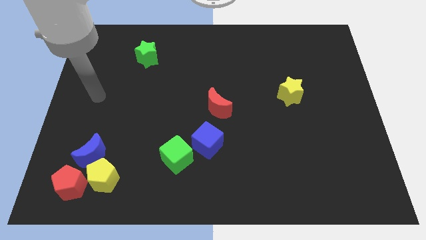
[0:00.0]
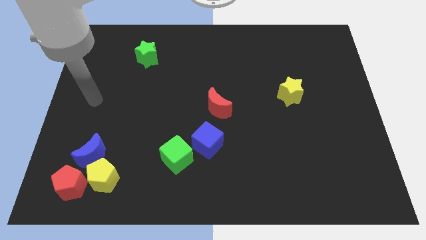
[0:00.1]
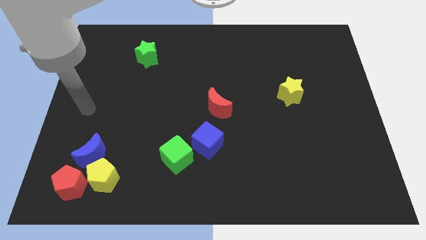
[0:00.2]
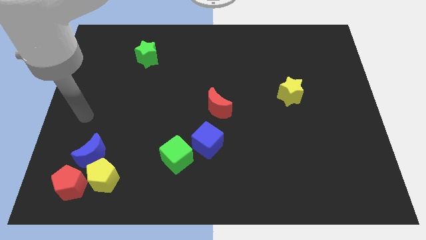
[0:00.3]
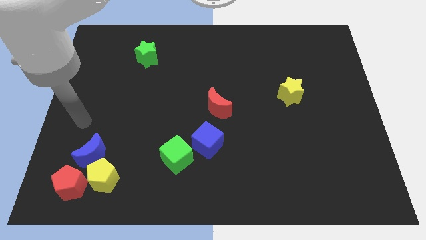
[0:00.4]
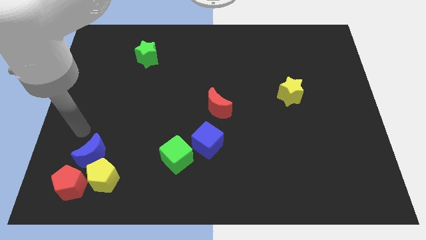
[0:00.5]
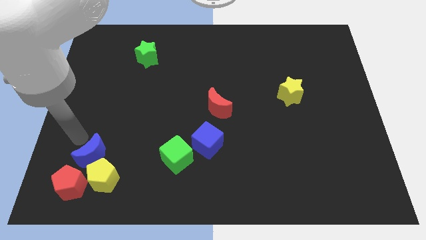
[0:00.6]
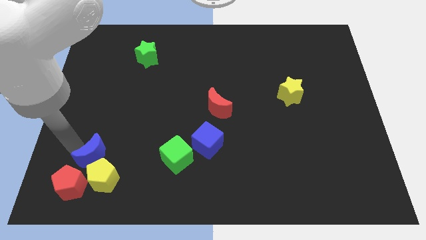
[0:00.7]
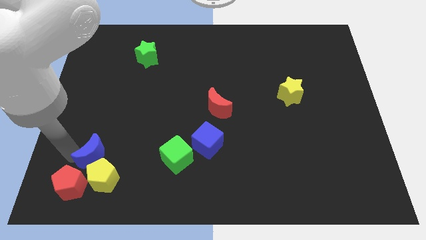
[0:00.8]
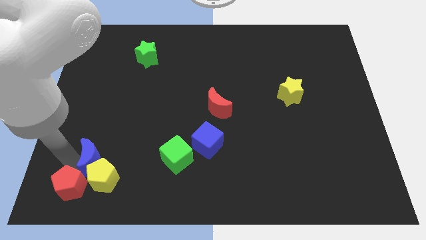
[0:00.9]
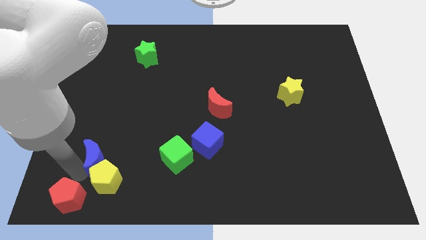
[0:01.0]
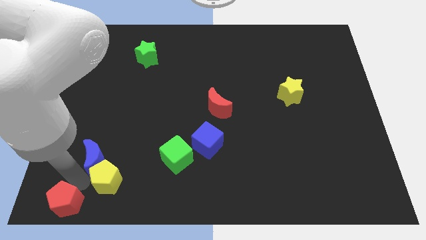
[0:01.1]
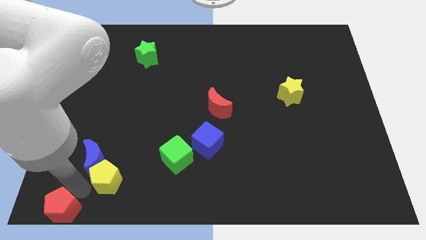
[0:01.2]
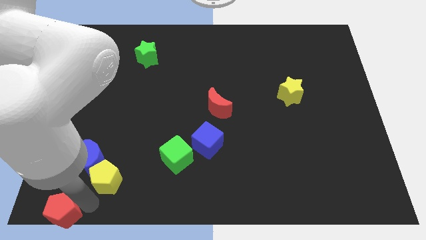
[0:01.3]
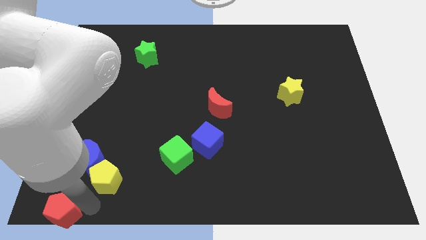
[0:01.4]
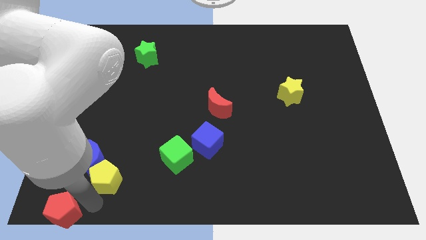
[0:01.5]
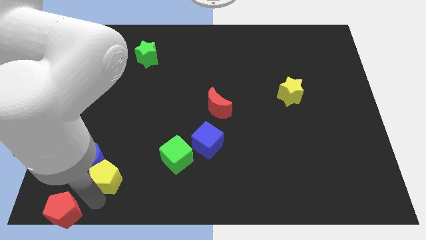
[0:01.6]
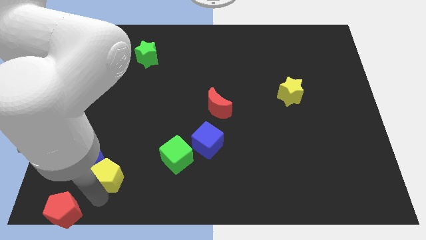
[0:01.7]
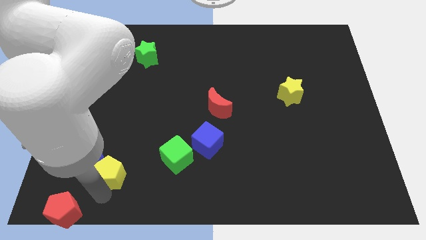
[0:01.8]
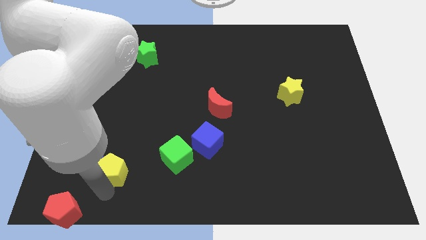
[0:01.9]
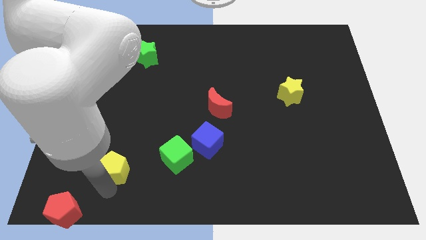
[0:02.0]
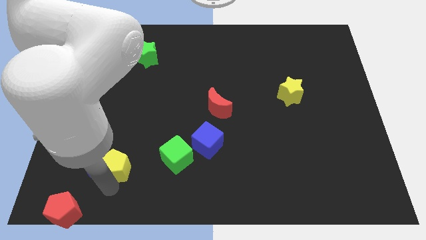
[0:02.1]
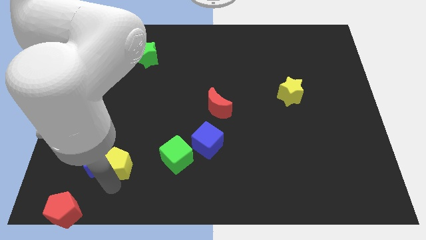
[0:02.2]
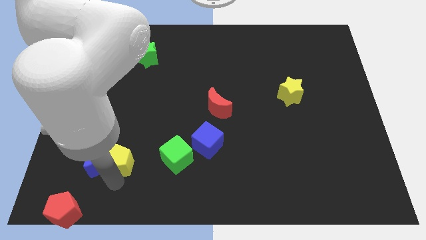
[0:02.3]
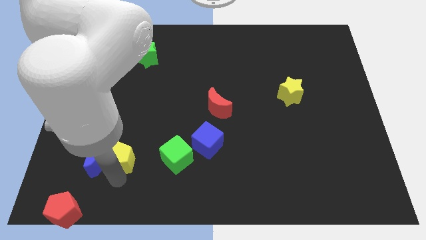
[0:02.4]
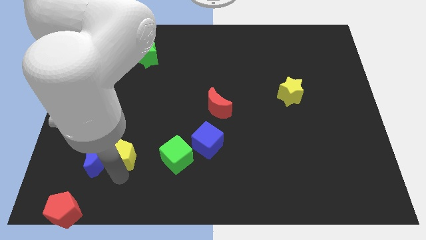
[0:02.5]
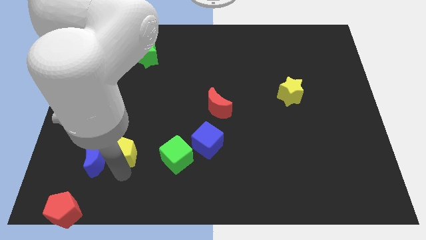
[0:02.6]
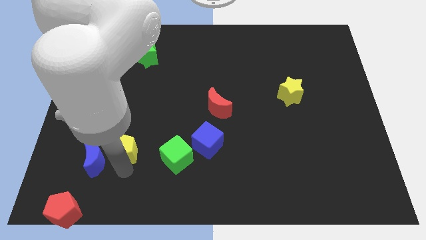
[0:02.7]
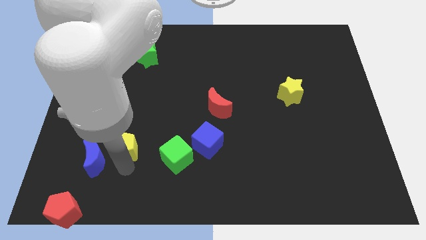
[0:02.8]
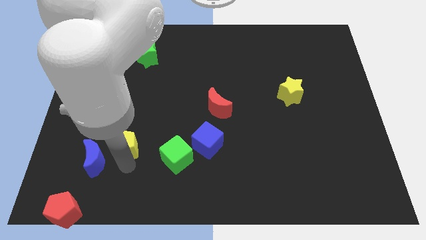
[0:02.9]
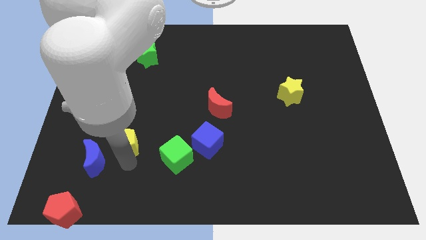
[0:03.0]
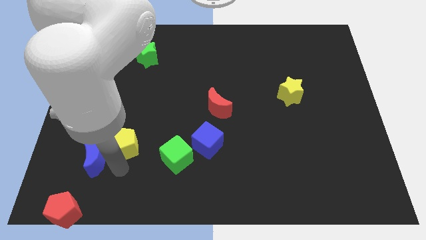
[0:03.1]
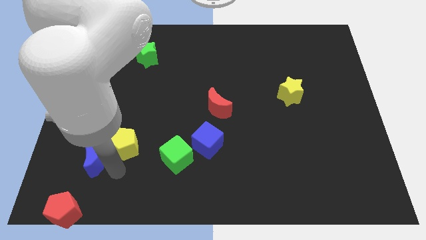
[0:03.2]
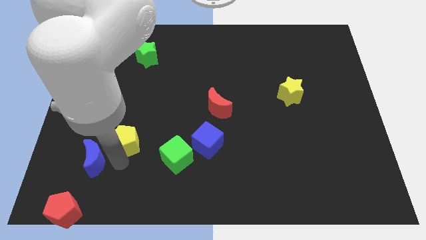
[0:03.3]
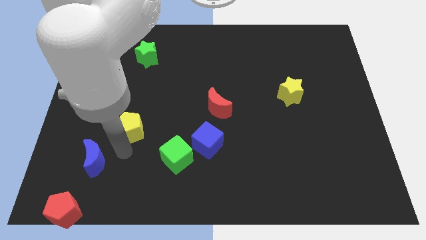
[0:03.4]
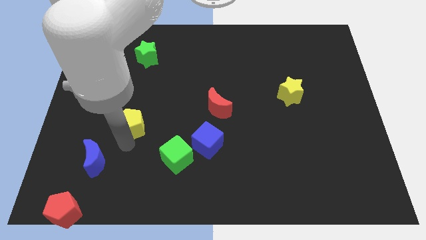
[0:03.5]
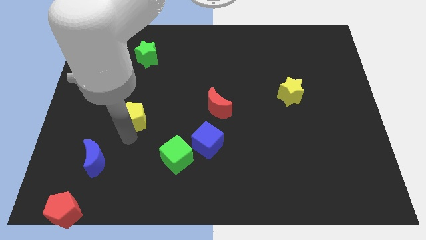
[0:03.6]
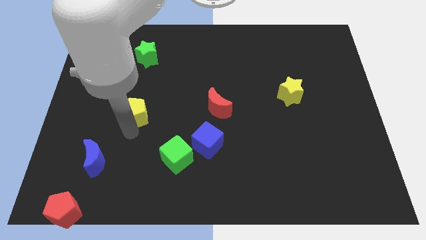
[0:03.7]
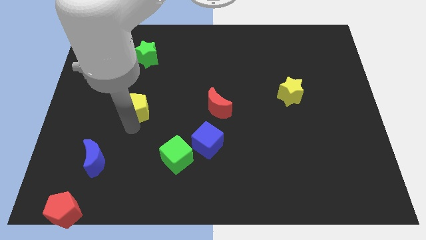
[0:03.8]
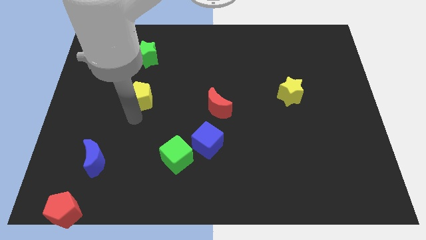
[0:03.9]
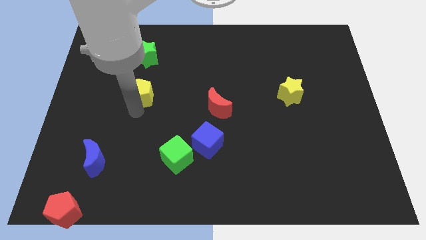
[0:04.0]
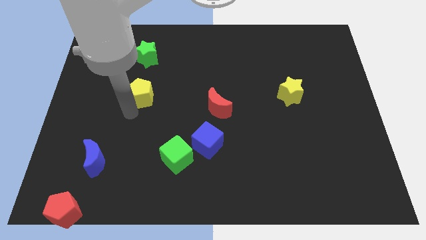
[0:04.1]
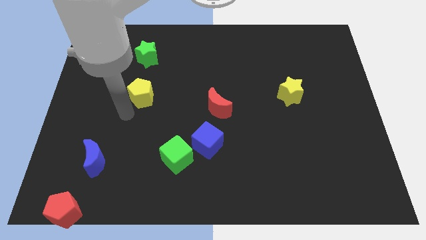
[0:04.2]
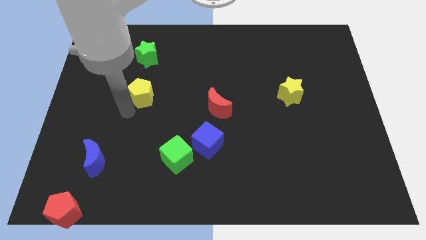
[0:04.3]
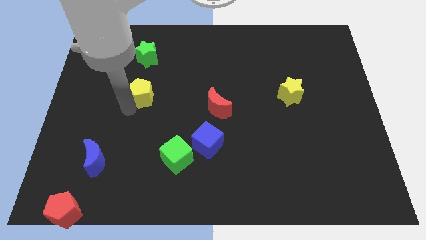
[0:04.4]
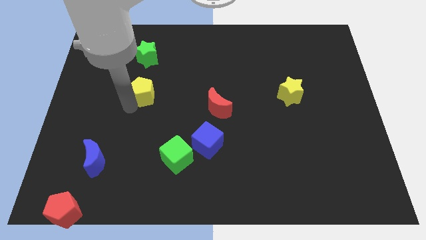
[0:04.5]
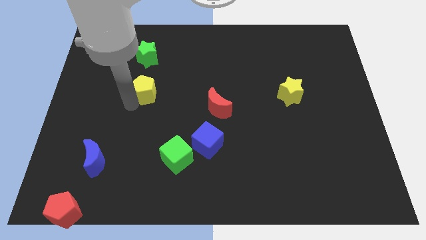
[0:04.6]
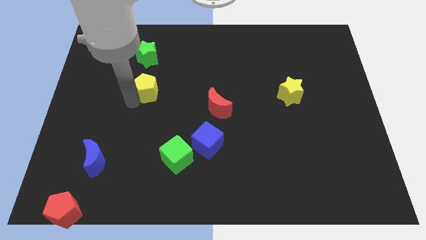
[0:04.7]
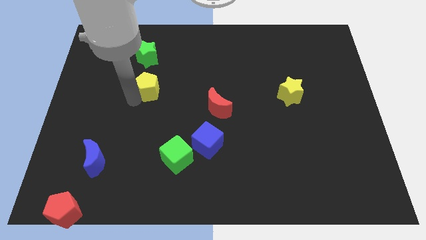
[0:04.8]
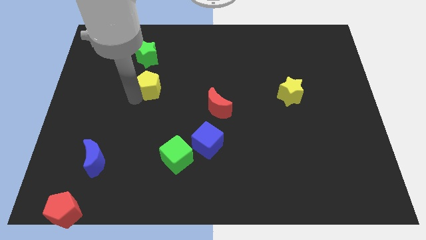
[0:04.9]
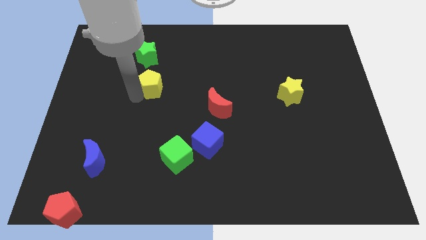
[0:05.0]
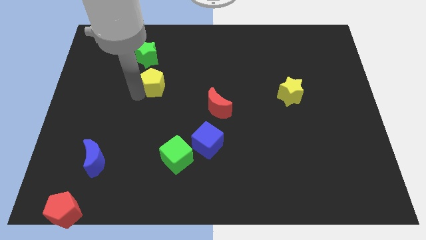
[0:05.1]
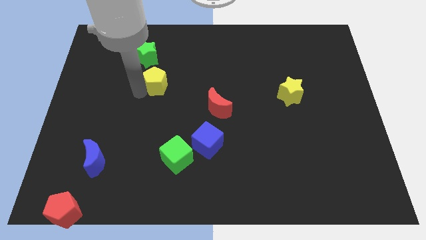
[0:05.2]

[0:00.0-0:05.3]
slide the yellow pentagon to the bottom right side of the green star

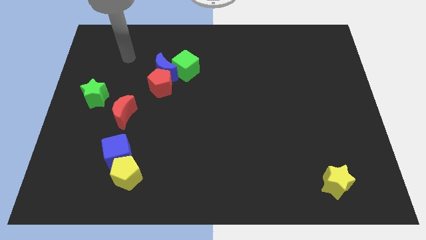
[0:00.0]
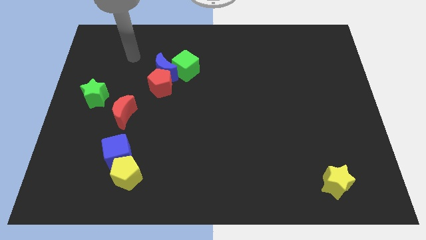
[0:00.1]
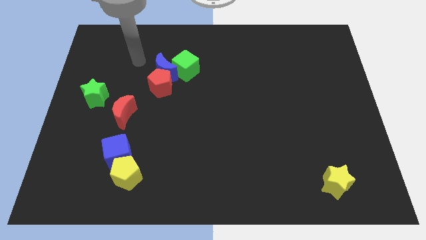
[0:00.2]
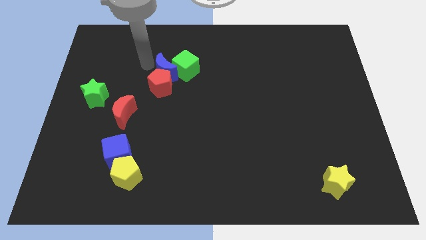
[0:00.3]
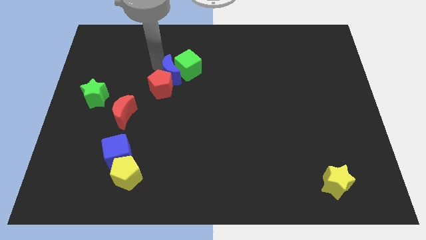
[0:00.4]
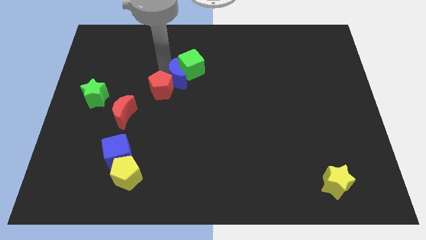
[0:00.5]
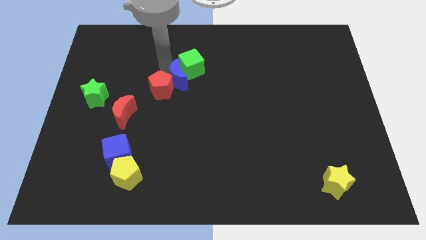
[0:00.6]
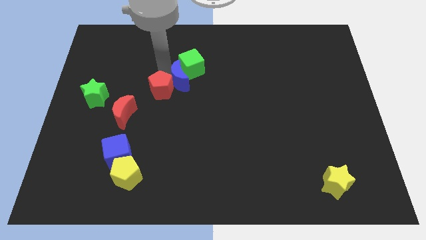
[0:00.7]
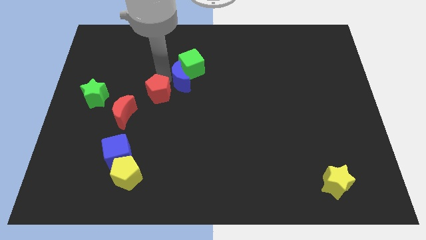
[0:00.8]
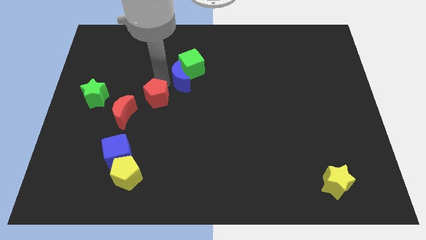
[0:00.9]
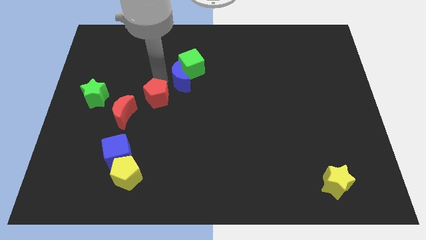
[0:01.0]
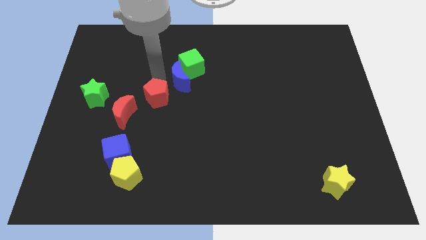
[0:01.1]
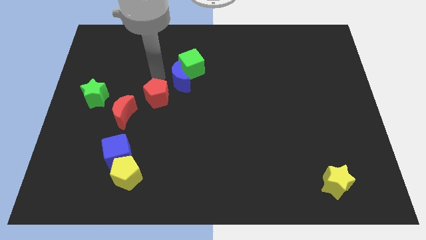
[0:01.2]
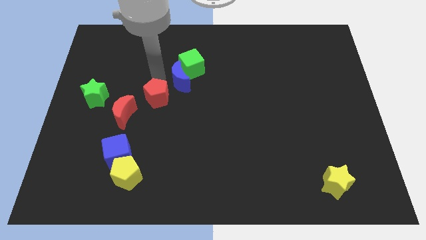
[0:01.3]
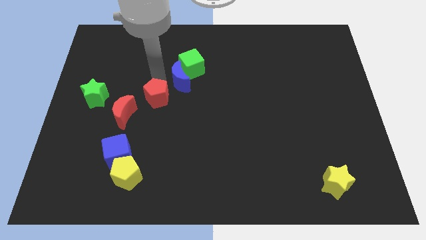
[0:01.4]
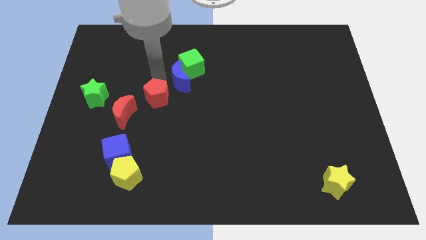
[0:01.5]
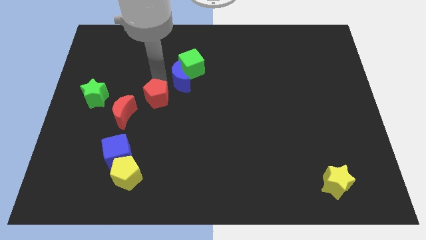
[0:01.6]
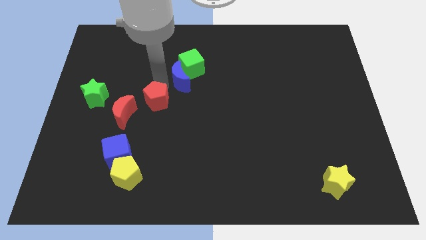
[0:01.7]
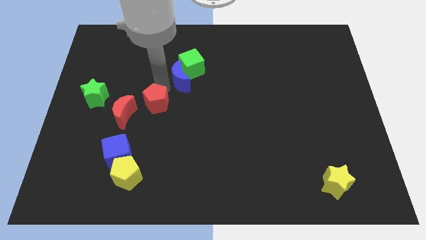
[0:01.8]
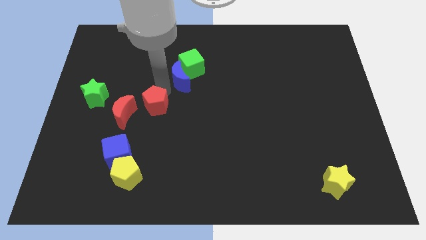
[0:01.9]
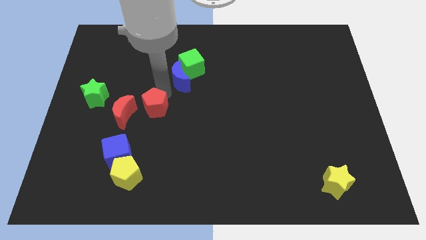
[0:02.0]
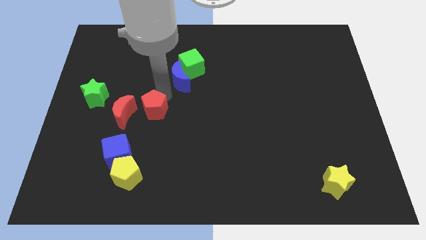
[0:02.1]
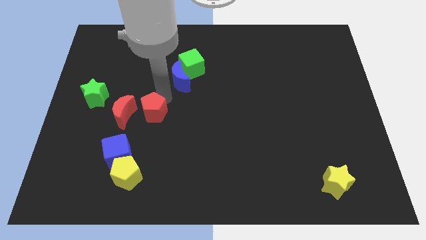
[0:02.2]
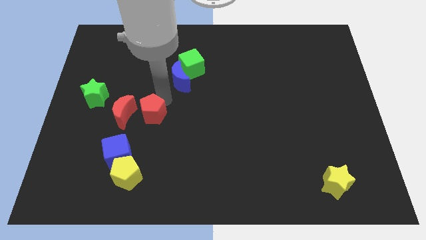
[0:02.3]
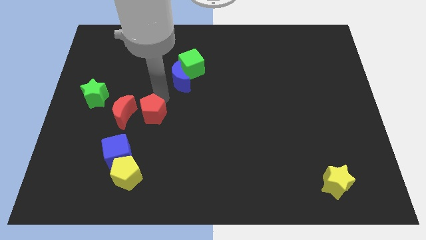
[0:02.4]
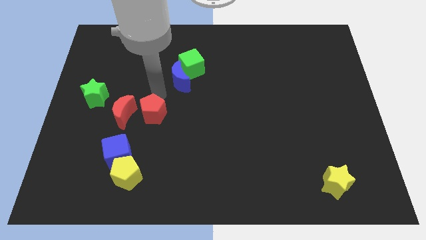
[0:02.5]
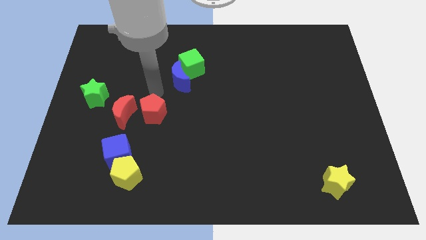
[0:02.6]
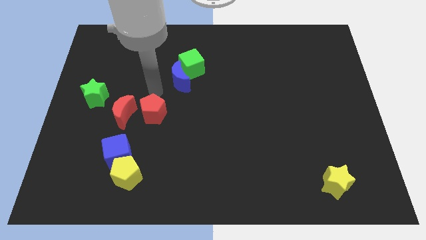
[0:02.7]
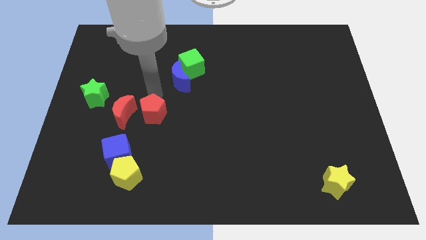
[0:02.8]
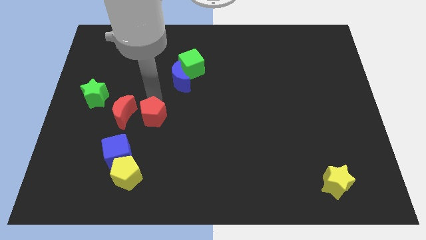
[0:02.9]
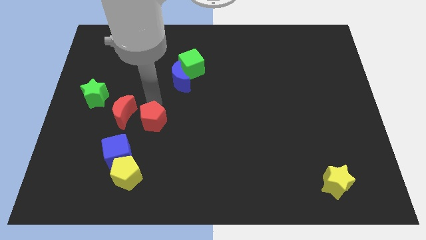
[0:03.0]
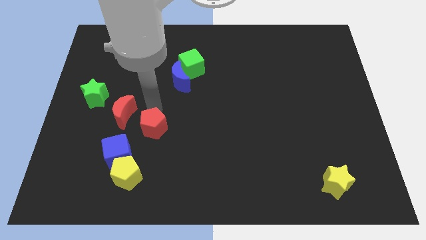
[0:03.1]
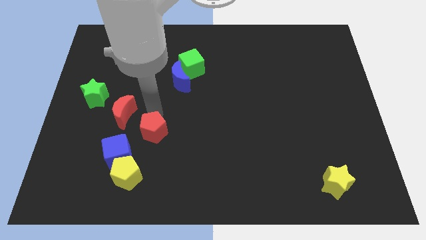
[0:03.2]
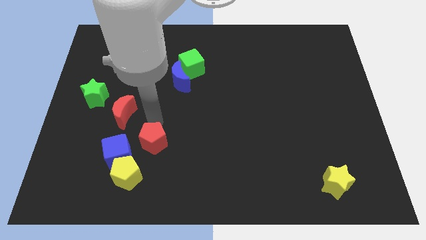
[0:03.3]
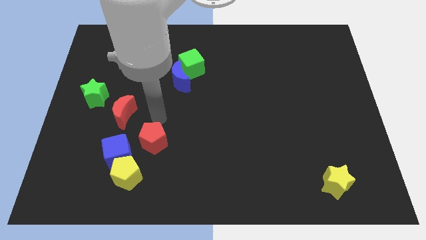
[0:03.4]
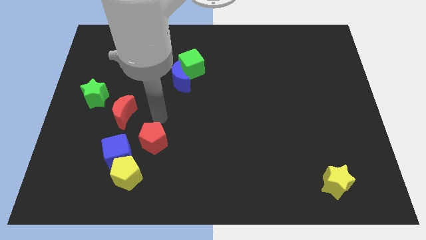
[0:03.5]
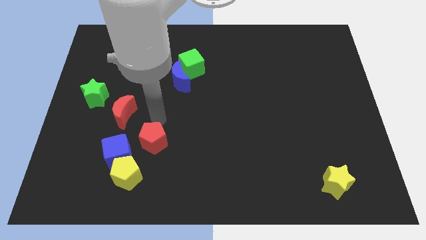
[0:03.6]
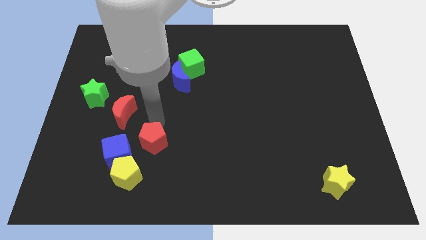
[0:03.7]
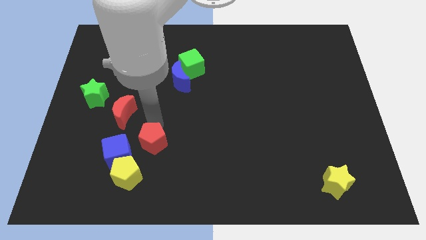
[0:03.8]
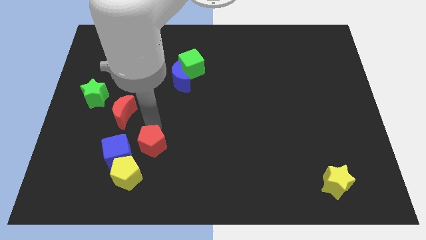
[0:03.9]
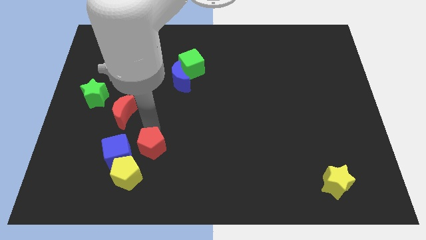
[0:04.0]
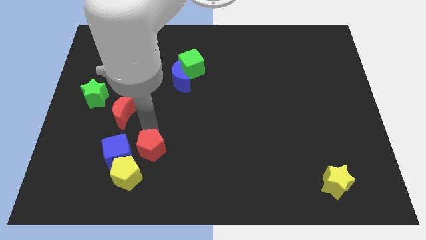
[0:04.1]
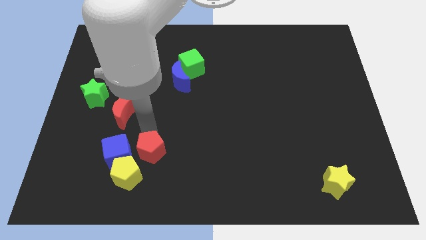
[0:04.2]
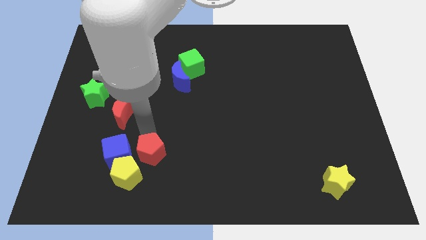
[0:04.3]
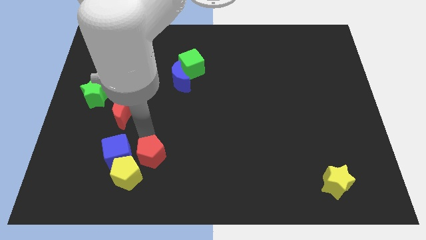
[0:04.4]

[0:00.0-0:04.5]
move the red pentagon to the bottom right side of the blue cube
